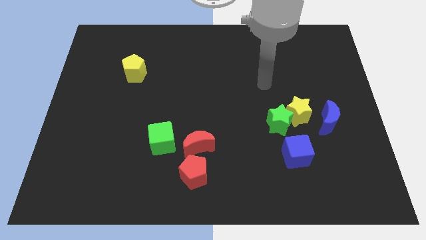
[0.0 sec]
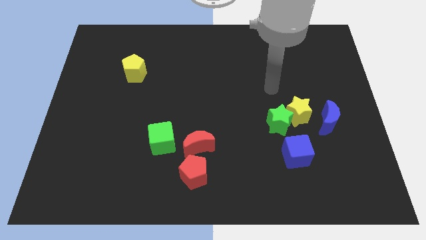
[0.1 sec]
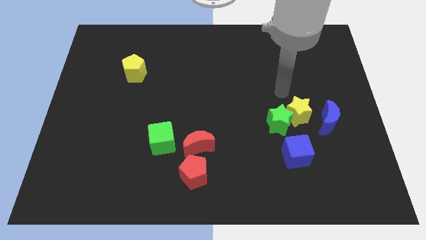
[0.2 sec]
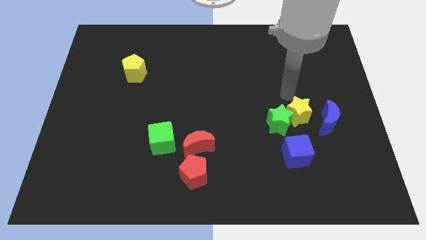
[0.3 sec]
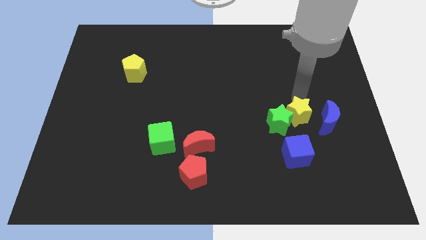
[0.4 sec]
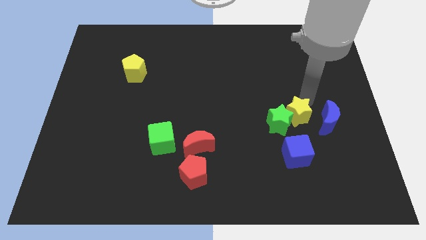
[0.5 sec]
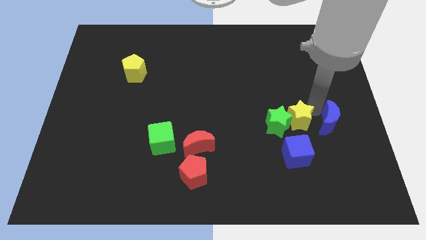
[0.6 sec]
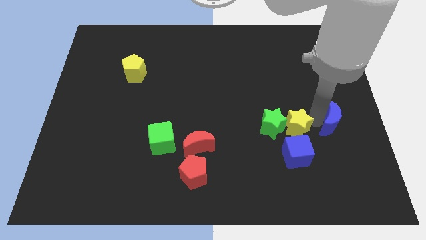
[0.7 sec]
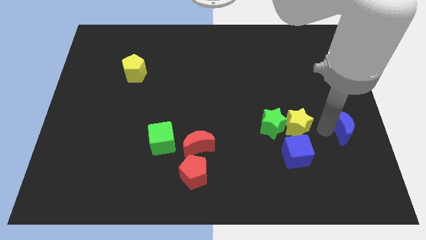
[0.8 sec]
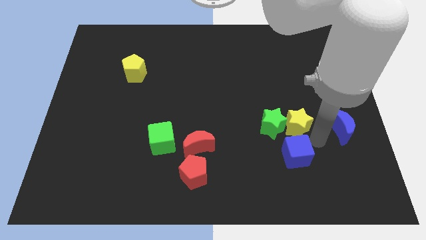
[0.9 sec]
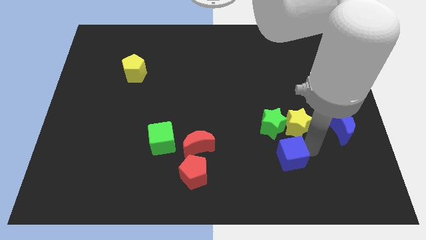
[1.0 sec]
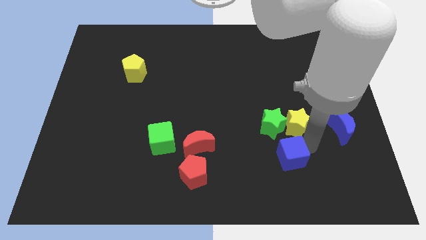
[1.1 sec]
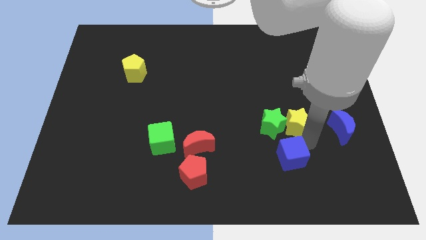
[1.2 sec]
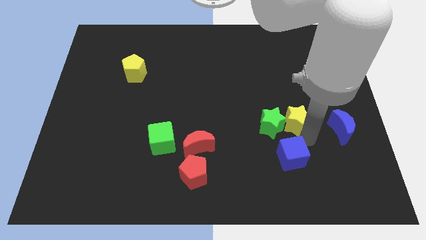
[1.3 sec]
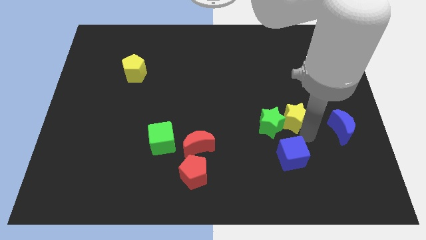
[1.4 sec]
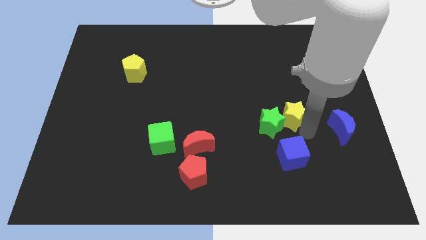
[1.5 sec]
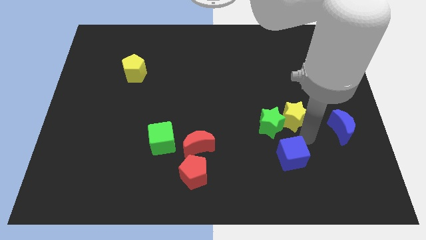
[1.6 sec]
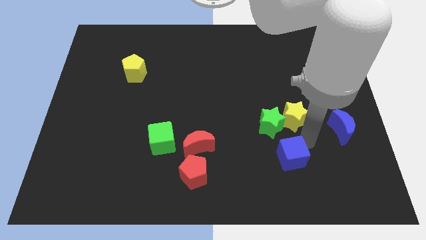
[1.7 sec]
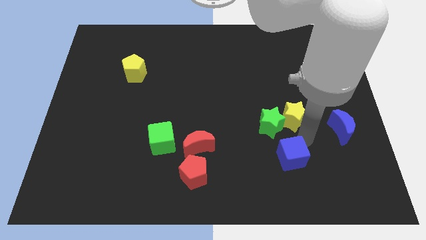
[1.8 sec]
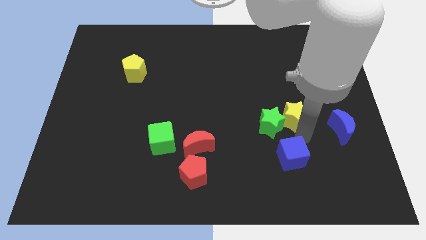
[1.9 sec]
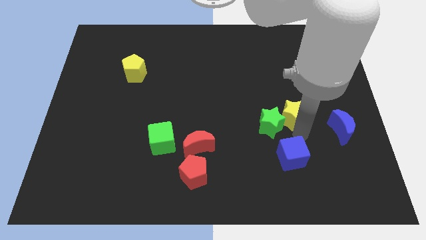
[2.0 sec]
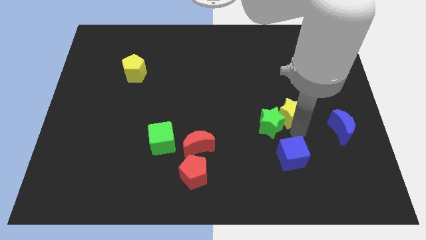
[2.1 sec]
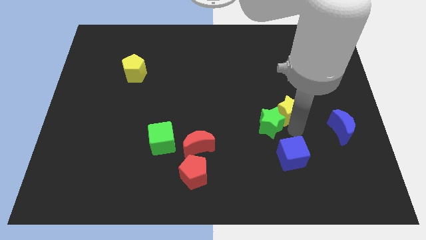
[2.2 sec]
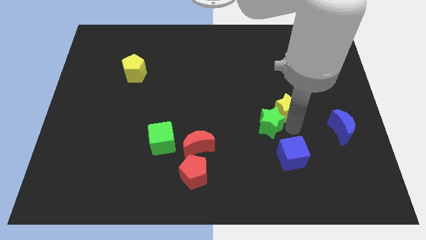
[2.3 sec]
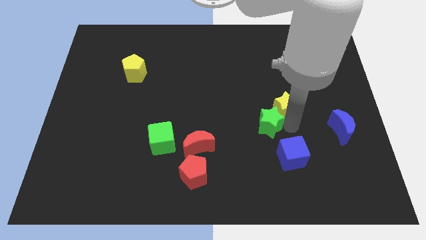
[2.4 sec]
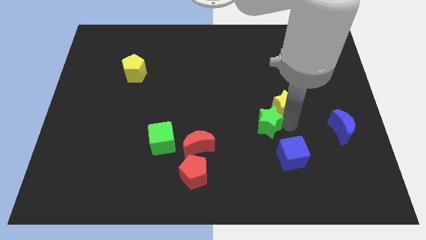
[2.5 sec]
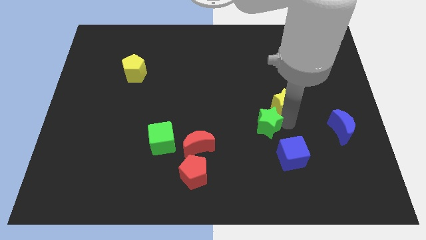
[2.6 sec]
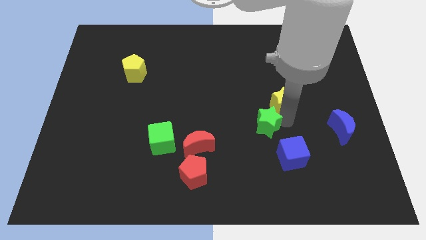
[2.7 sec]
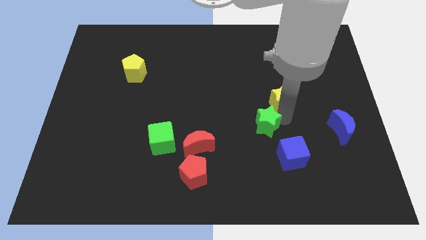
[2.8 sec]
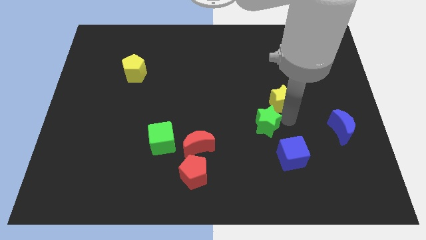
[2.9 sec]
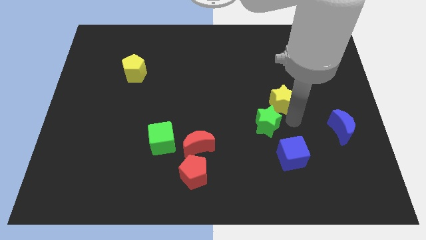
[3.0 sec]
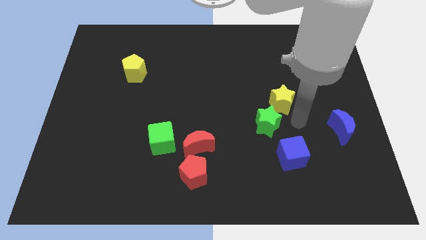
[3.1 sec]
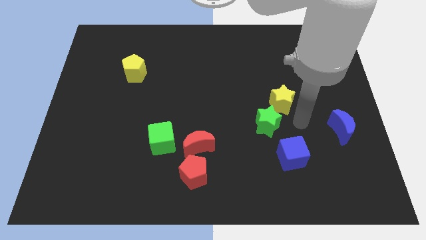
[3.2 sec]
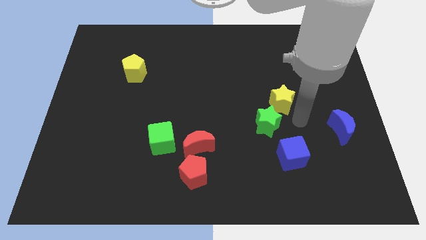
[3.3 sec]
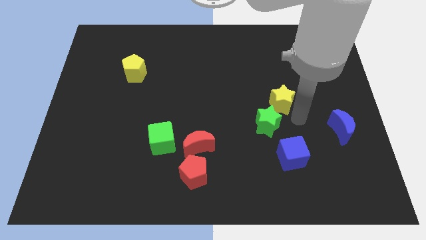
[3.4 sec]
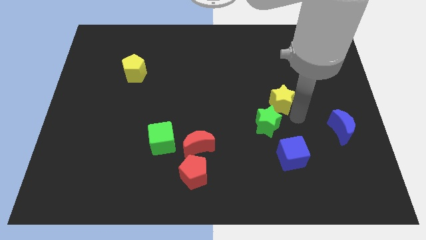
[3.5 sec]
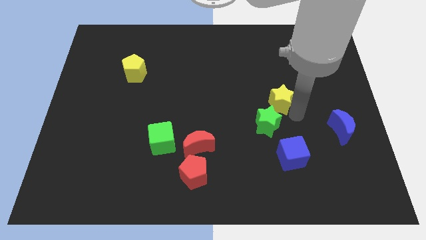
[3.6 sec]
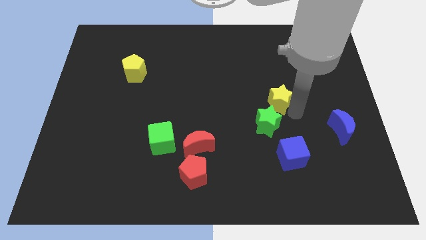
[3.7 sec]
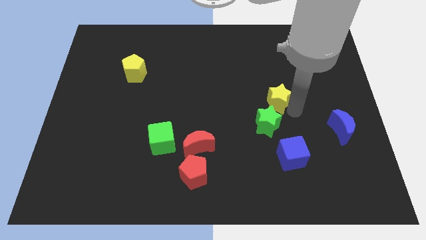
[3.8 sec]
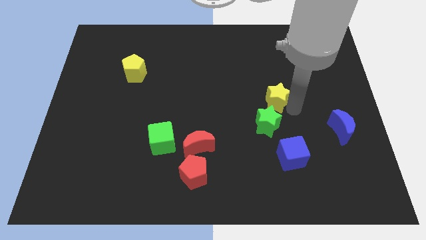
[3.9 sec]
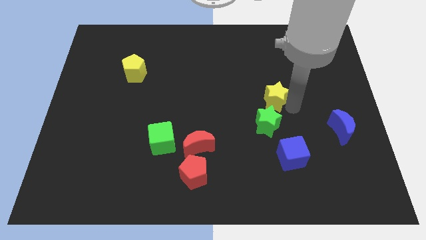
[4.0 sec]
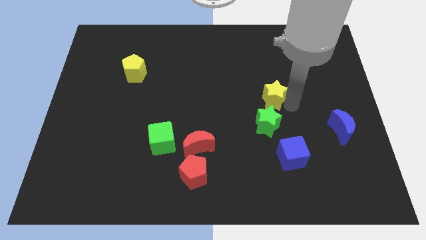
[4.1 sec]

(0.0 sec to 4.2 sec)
separate the yellow star from the green star and blue moon

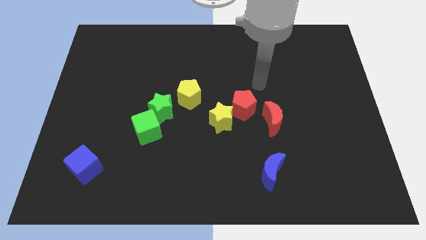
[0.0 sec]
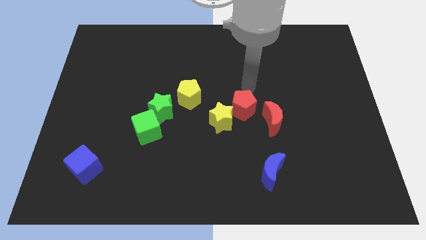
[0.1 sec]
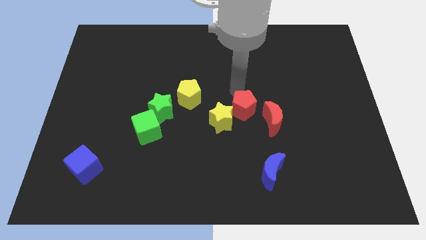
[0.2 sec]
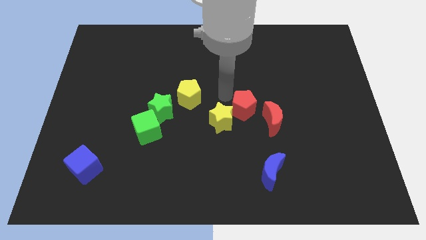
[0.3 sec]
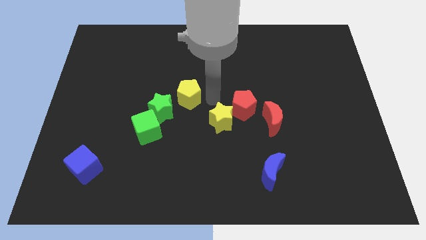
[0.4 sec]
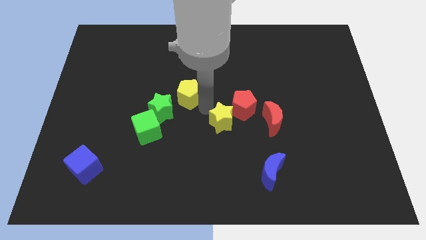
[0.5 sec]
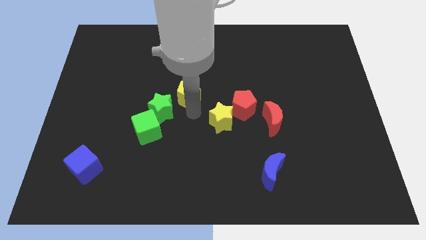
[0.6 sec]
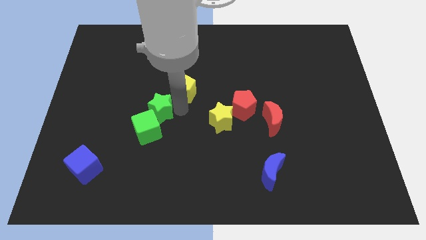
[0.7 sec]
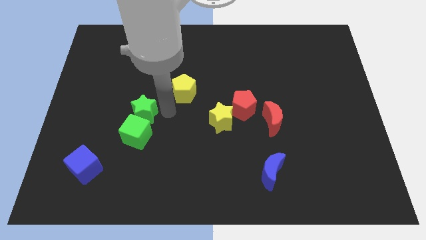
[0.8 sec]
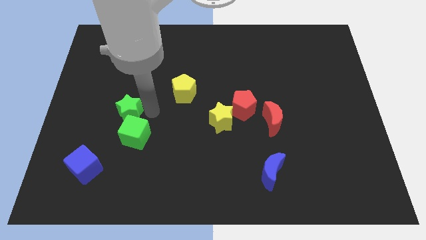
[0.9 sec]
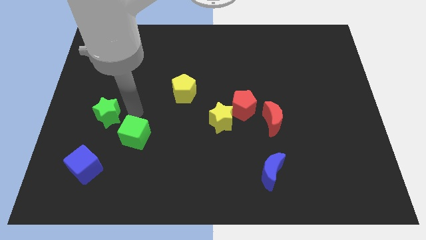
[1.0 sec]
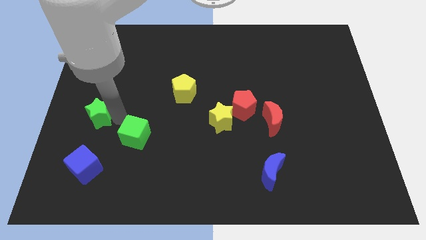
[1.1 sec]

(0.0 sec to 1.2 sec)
separate the green cube from the green star

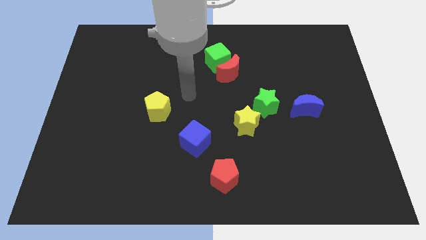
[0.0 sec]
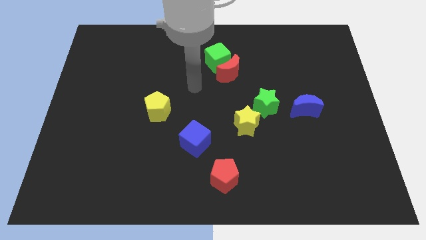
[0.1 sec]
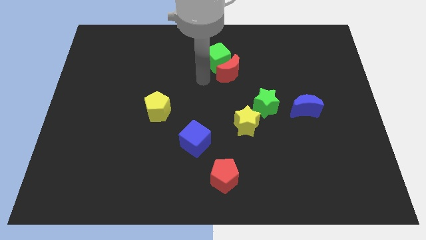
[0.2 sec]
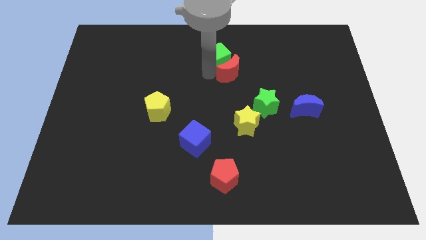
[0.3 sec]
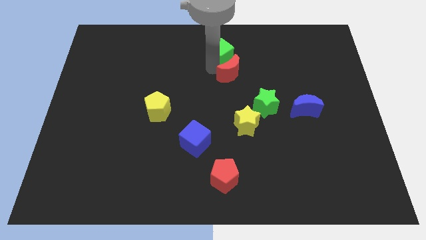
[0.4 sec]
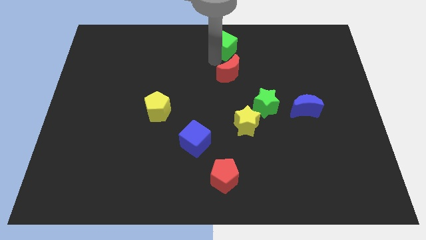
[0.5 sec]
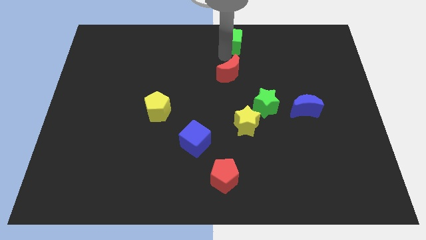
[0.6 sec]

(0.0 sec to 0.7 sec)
pull the red moon apart from the green cube

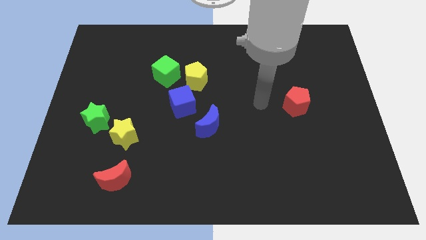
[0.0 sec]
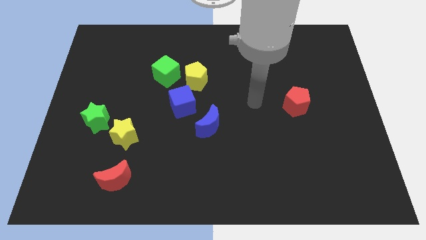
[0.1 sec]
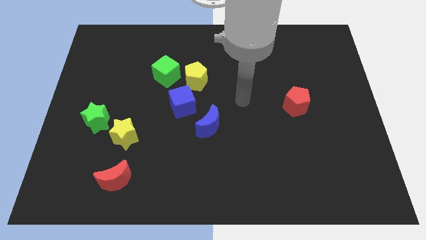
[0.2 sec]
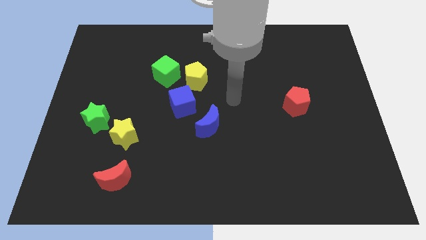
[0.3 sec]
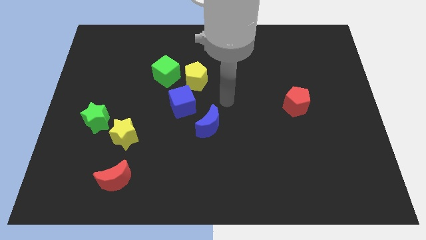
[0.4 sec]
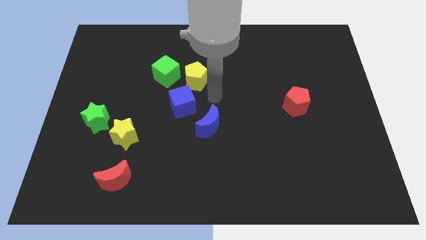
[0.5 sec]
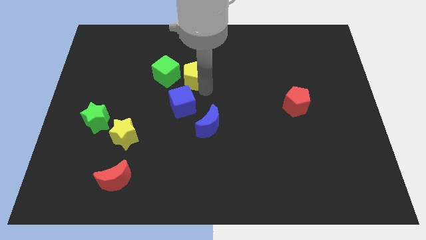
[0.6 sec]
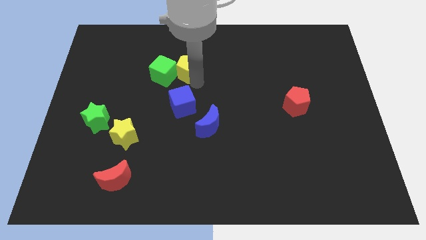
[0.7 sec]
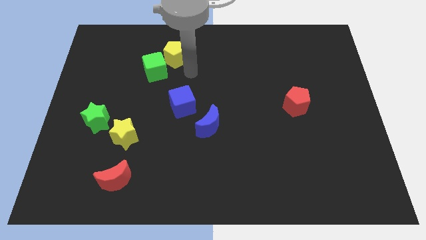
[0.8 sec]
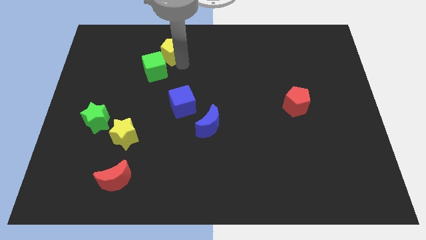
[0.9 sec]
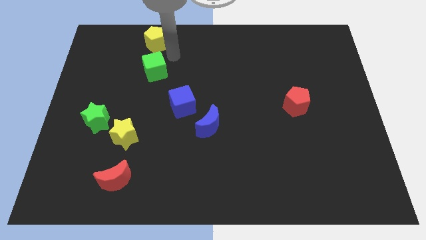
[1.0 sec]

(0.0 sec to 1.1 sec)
separate the green cube from the yellow pentagon

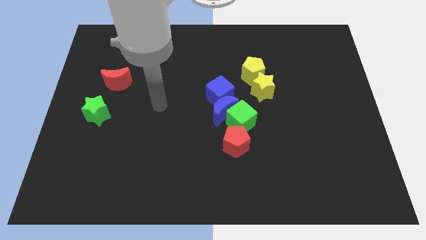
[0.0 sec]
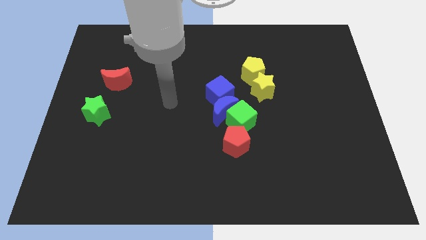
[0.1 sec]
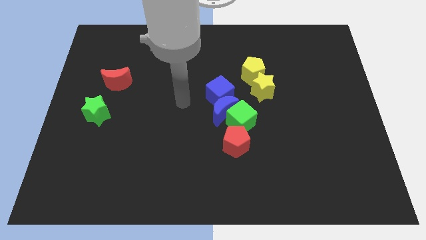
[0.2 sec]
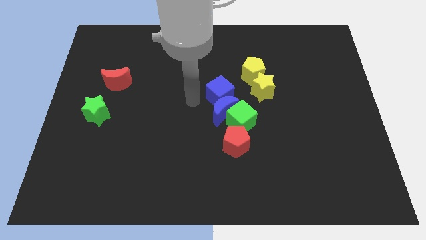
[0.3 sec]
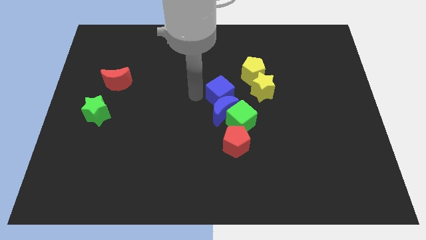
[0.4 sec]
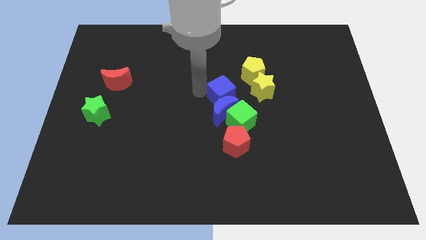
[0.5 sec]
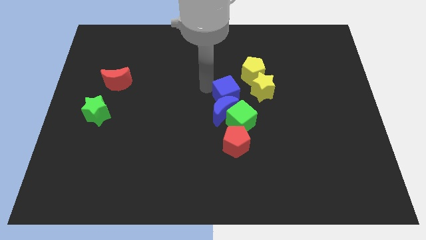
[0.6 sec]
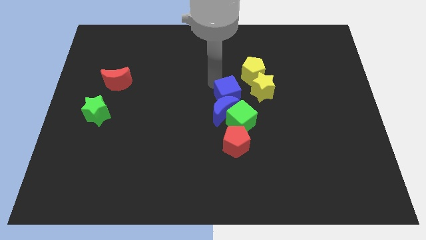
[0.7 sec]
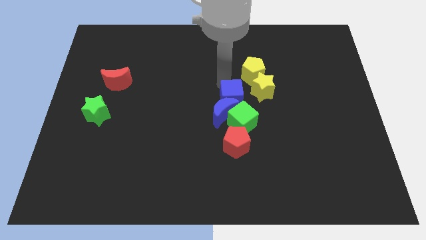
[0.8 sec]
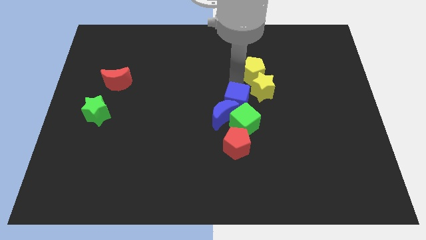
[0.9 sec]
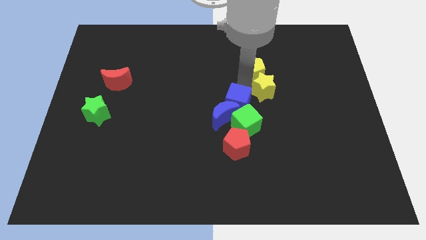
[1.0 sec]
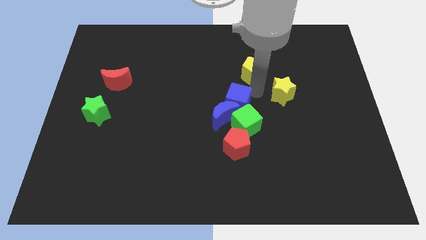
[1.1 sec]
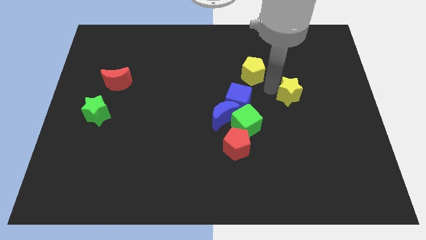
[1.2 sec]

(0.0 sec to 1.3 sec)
separate the yellow pentagon from the yellow star

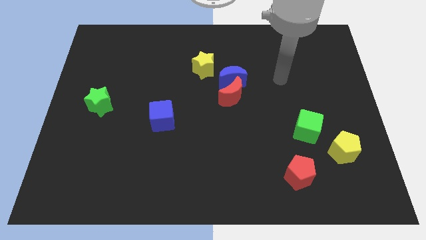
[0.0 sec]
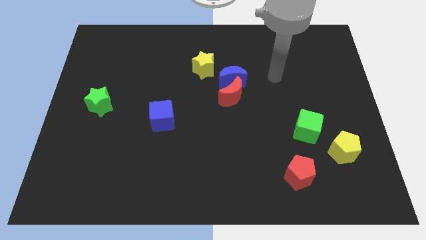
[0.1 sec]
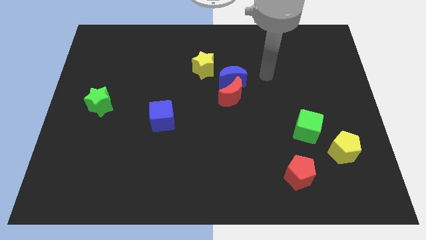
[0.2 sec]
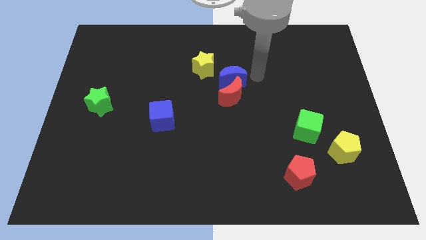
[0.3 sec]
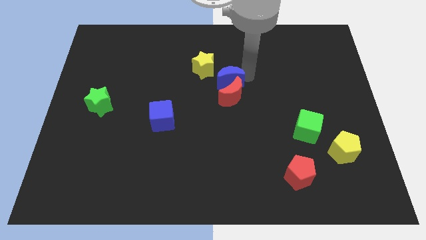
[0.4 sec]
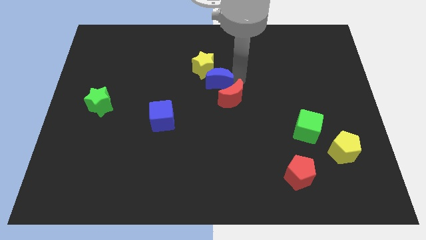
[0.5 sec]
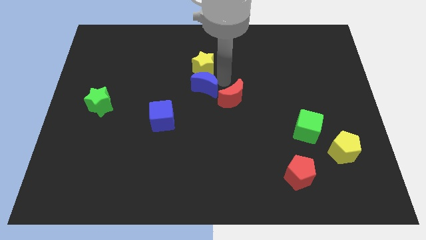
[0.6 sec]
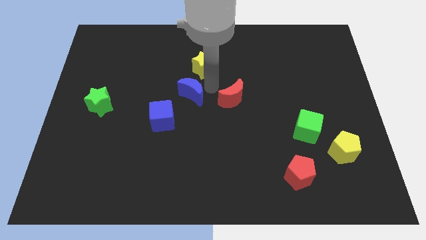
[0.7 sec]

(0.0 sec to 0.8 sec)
separate the red moon from the blue moon

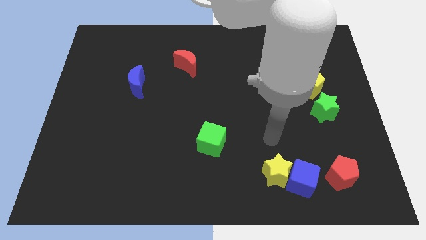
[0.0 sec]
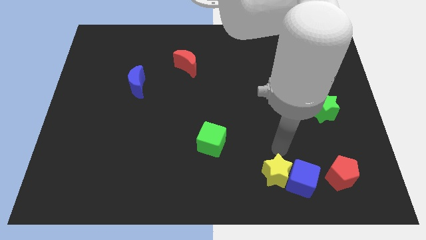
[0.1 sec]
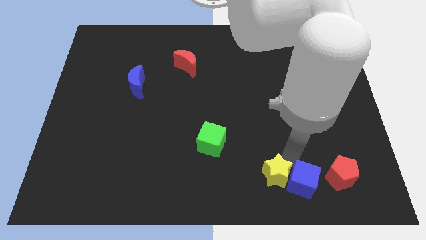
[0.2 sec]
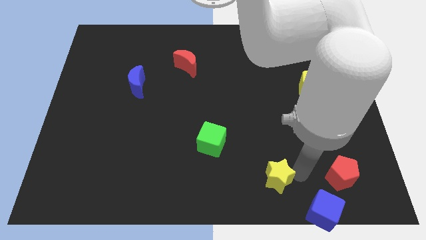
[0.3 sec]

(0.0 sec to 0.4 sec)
move the yellow star away from the blue cube
